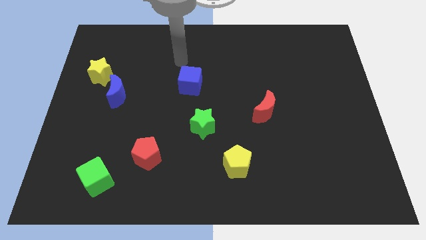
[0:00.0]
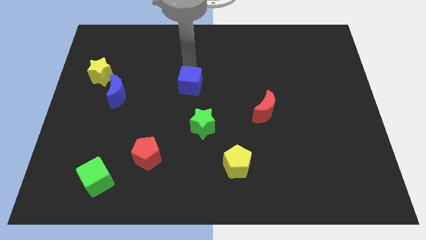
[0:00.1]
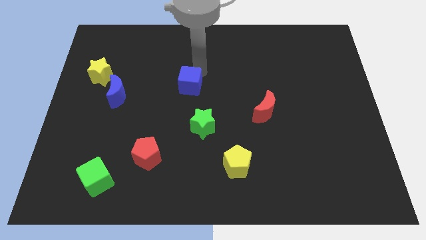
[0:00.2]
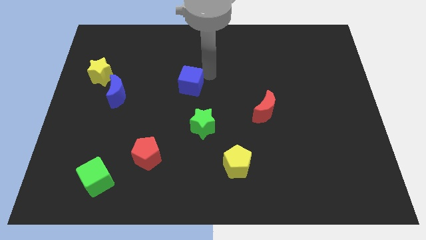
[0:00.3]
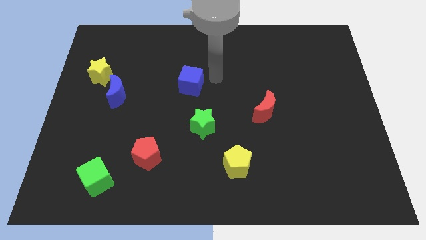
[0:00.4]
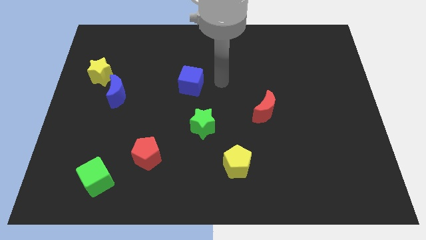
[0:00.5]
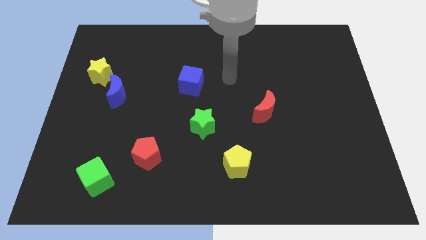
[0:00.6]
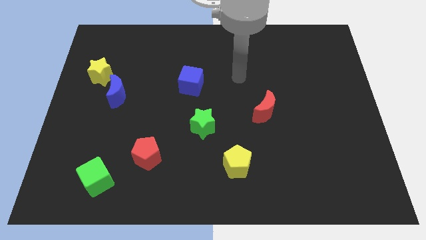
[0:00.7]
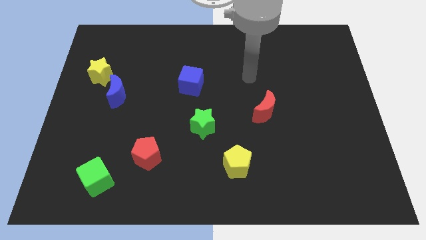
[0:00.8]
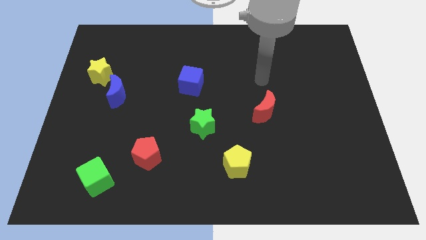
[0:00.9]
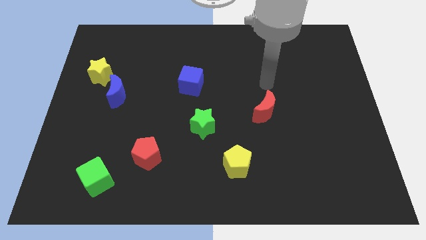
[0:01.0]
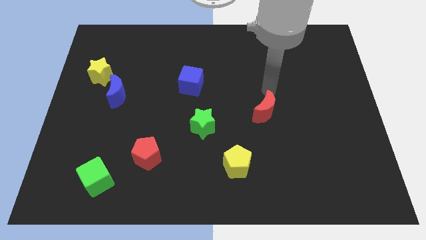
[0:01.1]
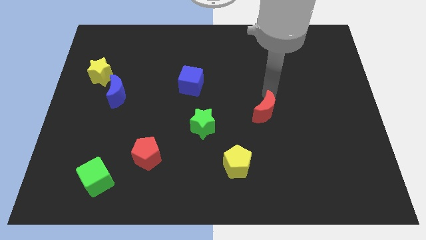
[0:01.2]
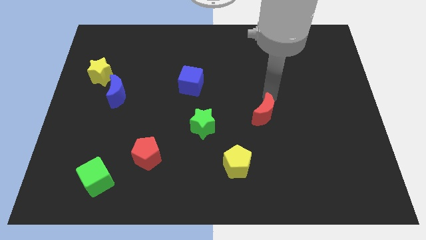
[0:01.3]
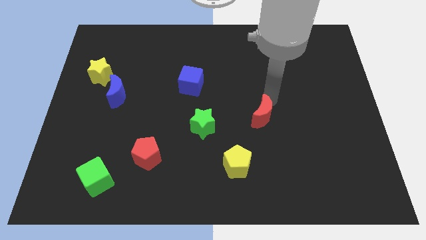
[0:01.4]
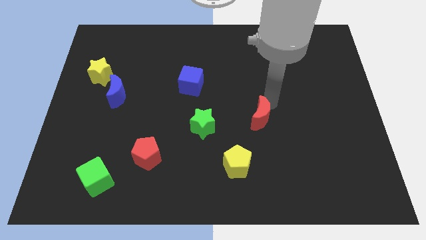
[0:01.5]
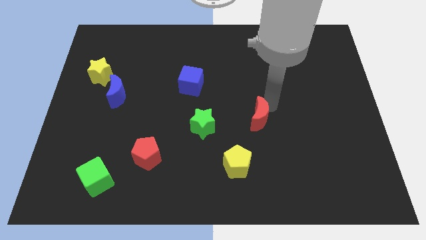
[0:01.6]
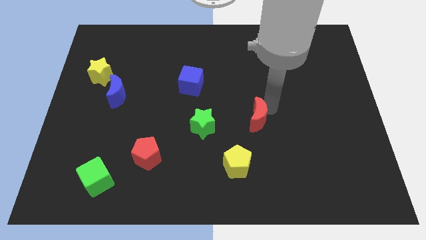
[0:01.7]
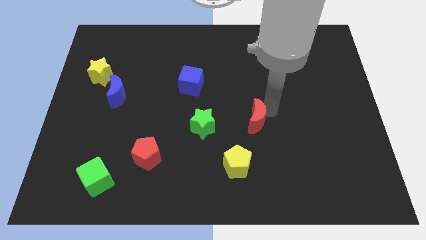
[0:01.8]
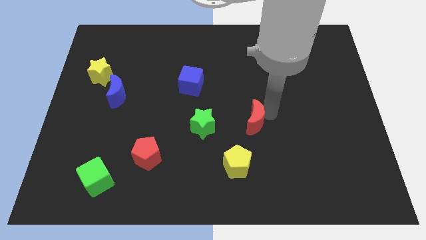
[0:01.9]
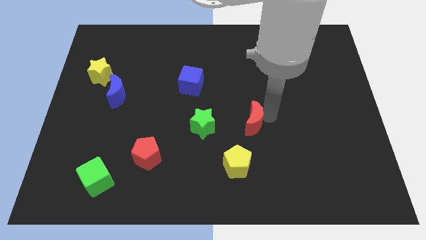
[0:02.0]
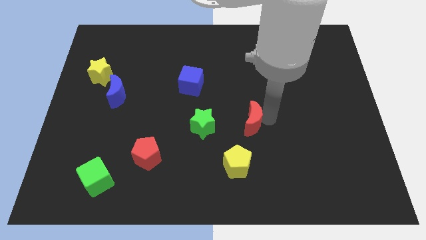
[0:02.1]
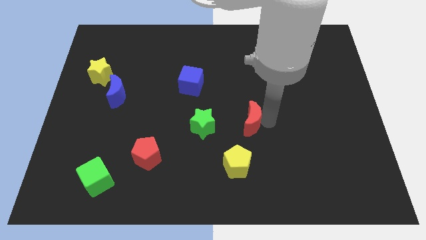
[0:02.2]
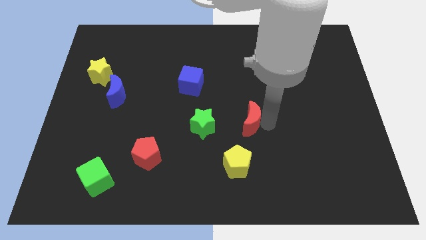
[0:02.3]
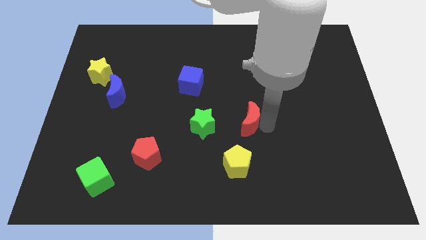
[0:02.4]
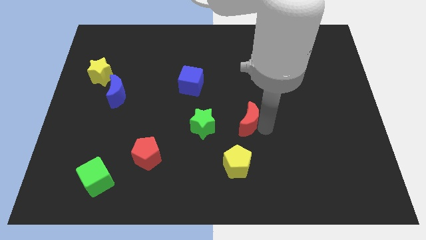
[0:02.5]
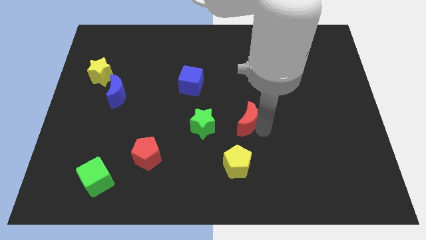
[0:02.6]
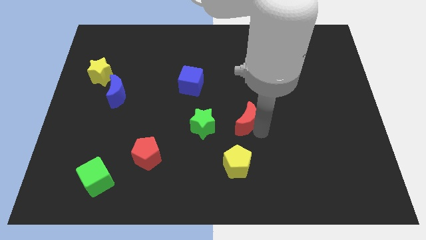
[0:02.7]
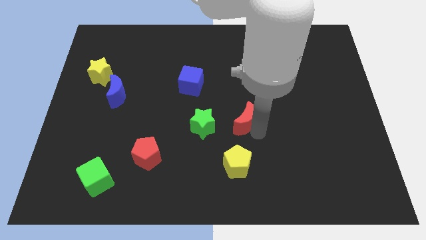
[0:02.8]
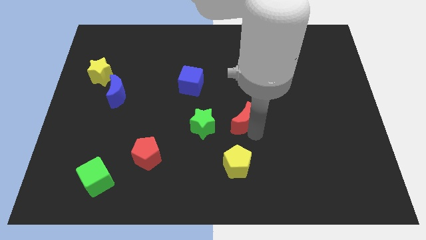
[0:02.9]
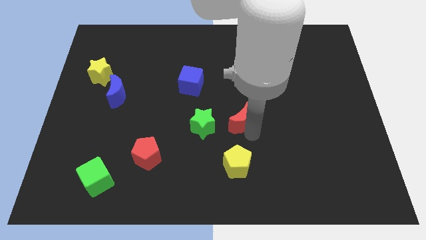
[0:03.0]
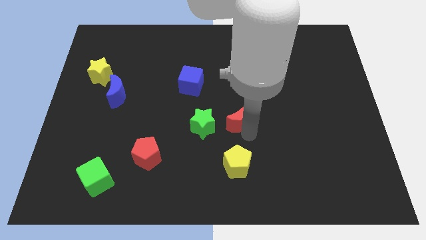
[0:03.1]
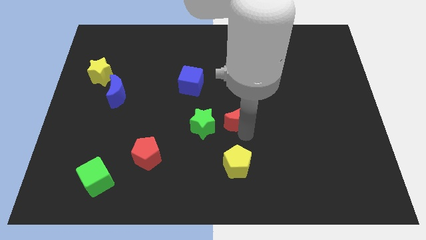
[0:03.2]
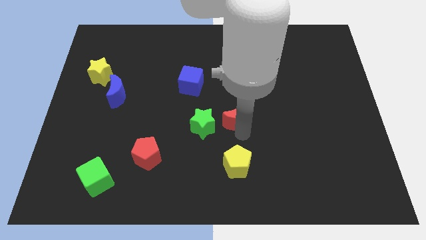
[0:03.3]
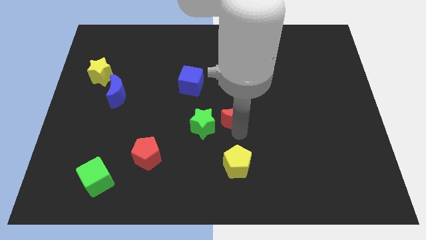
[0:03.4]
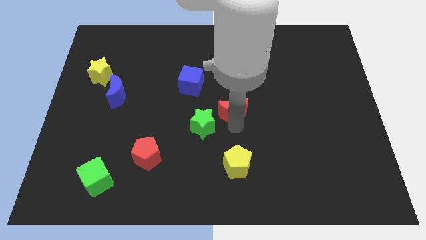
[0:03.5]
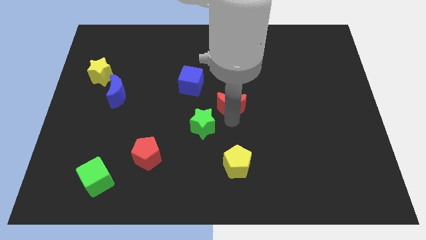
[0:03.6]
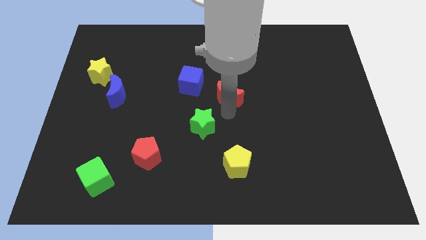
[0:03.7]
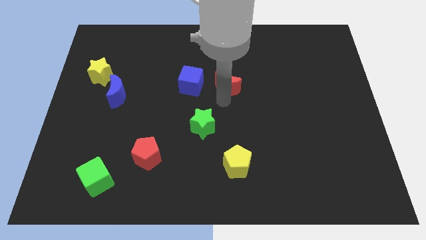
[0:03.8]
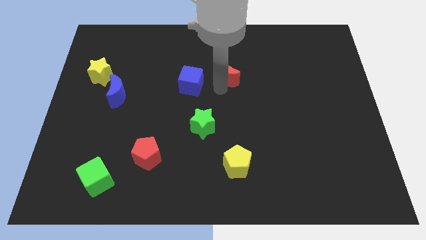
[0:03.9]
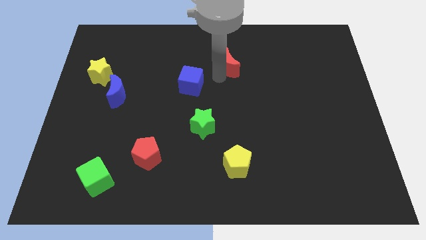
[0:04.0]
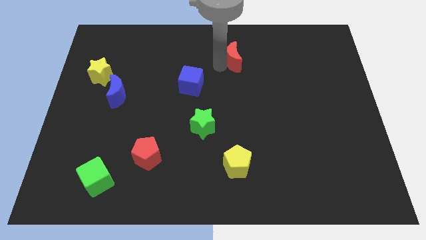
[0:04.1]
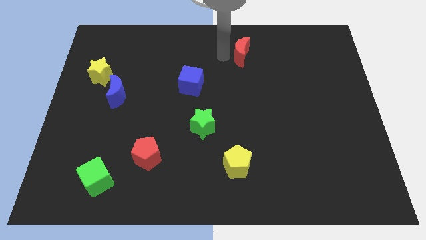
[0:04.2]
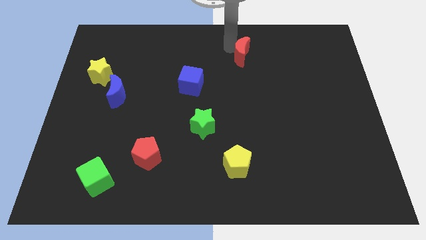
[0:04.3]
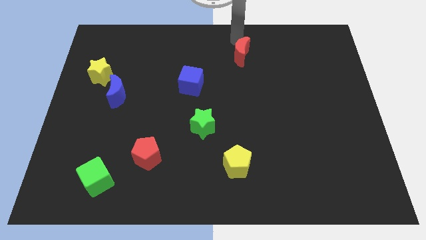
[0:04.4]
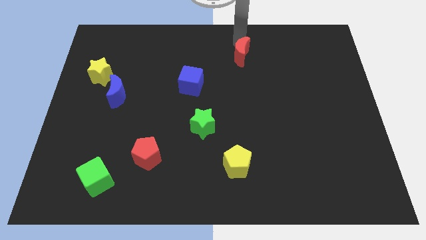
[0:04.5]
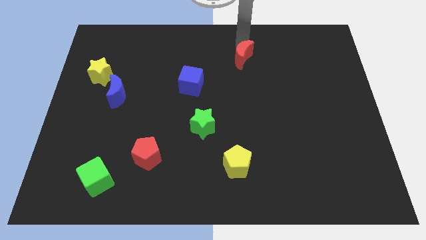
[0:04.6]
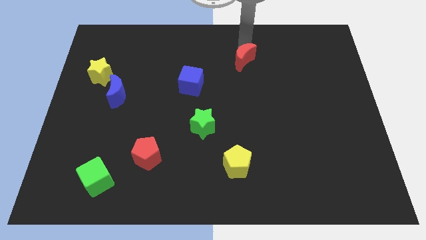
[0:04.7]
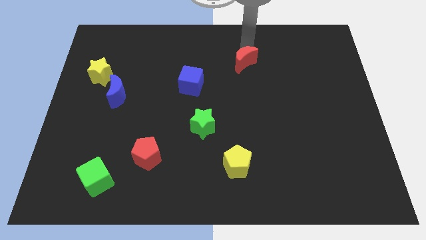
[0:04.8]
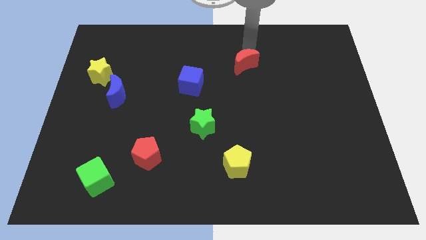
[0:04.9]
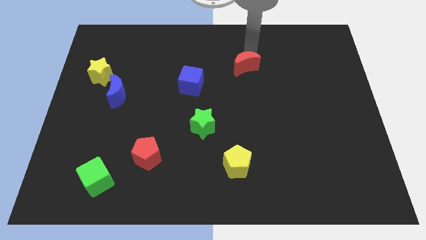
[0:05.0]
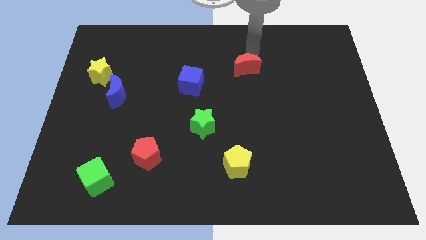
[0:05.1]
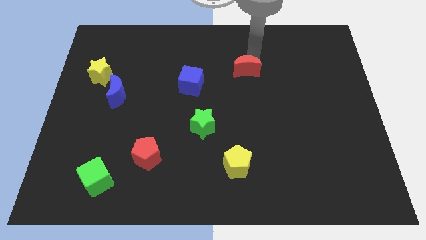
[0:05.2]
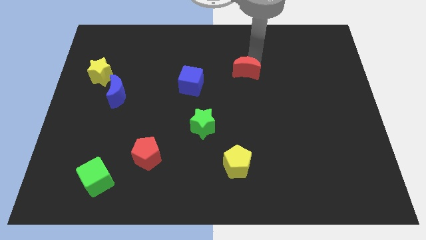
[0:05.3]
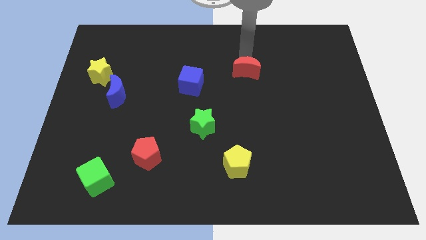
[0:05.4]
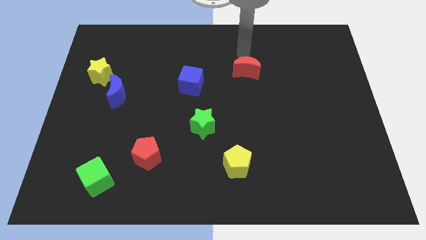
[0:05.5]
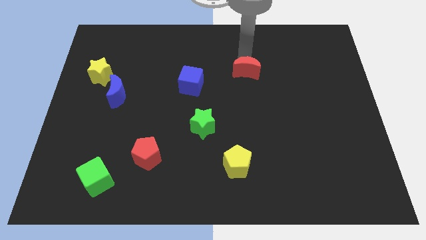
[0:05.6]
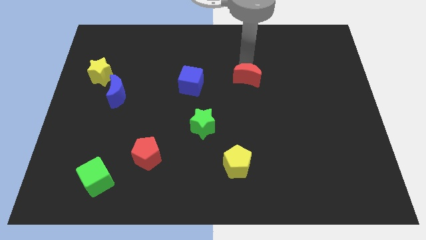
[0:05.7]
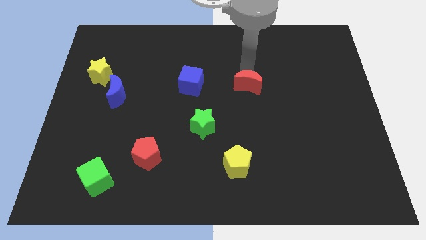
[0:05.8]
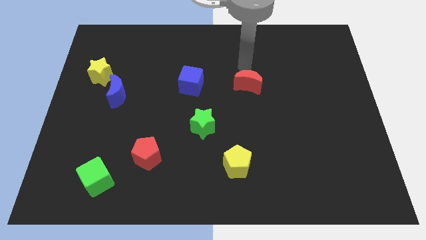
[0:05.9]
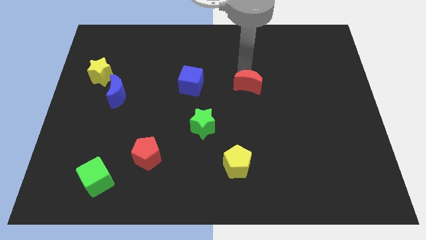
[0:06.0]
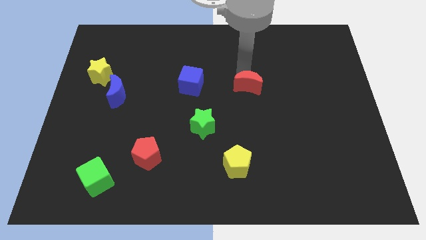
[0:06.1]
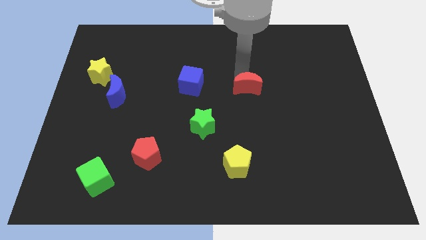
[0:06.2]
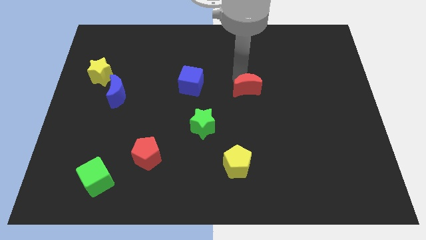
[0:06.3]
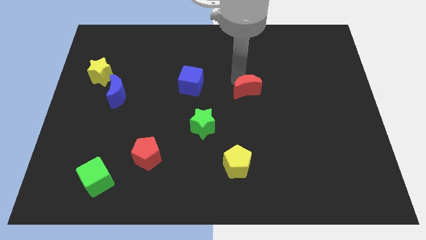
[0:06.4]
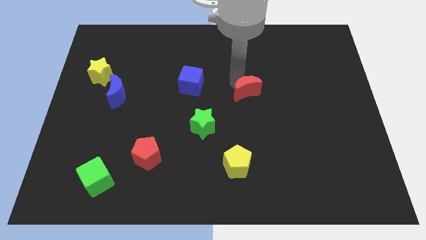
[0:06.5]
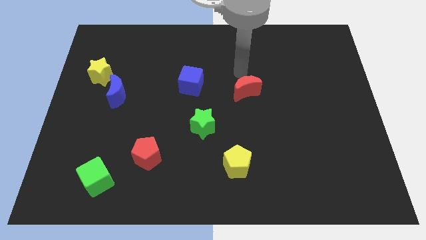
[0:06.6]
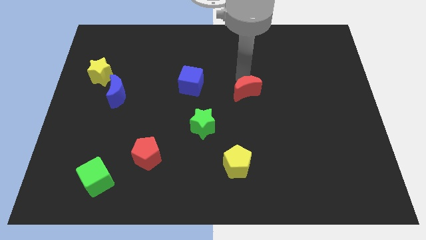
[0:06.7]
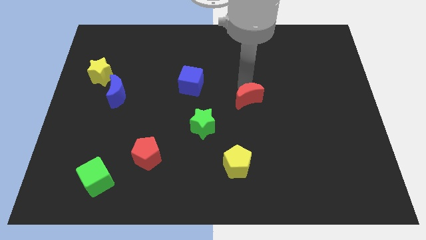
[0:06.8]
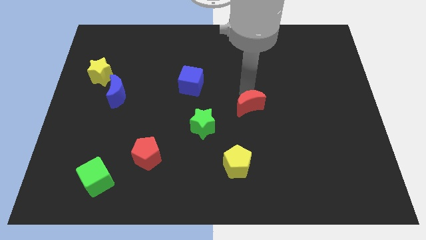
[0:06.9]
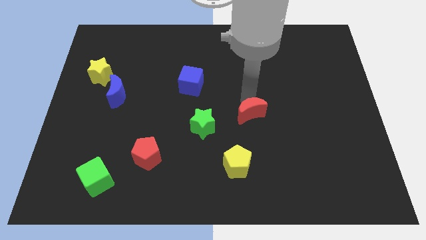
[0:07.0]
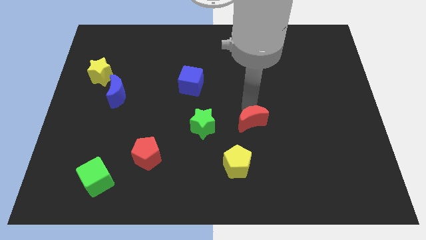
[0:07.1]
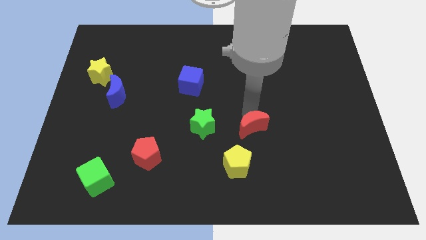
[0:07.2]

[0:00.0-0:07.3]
push the red moon to the top right side of the yellow pentagon
